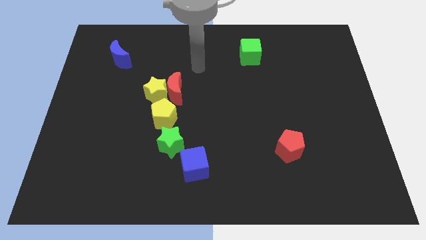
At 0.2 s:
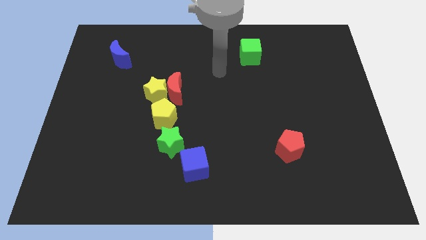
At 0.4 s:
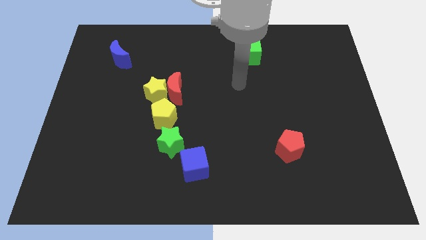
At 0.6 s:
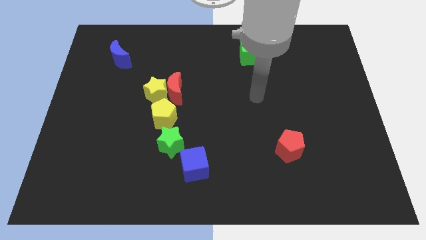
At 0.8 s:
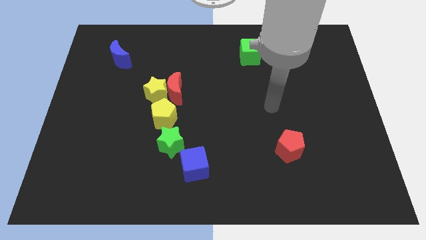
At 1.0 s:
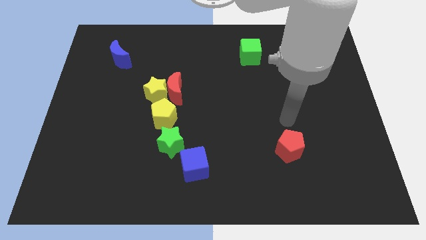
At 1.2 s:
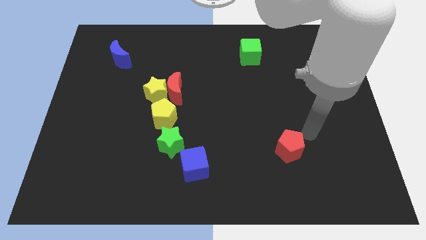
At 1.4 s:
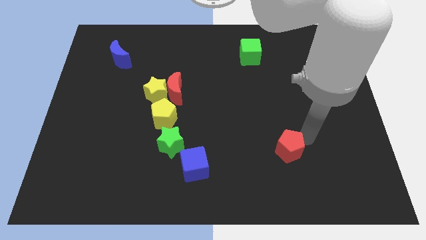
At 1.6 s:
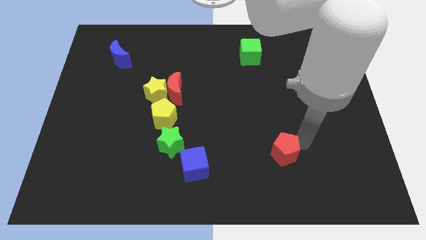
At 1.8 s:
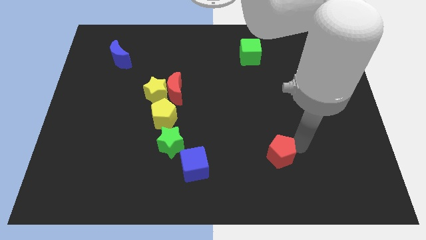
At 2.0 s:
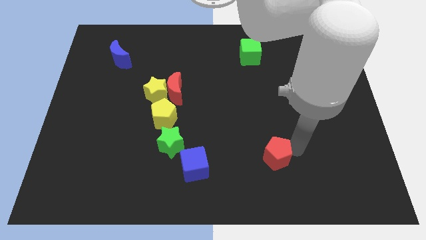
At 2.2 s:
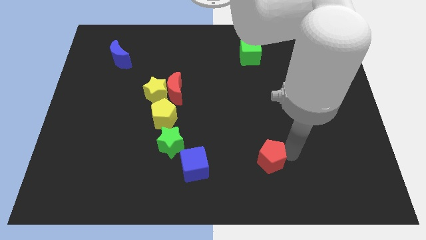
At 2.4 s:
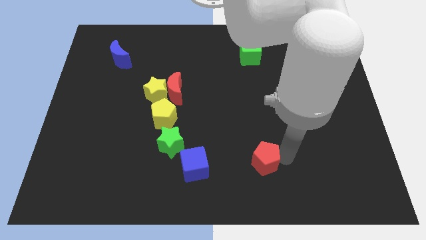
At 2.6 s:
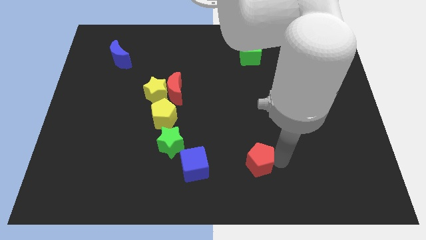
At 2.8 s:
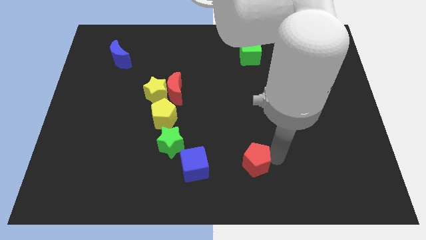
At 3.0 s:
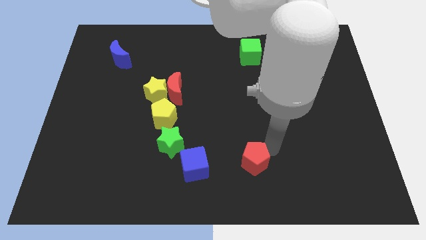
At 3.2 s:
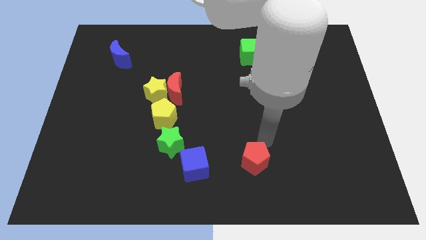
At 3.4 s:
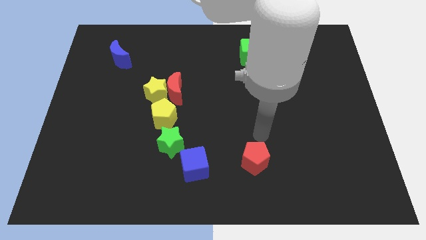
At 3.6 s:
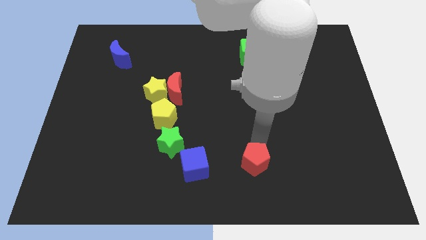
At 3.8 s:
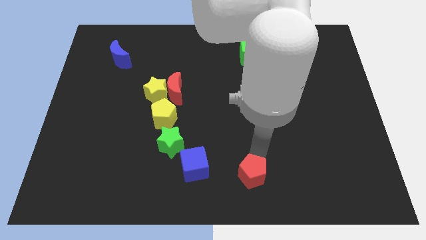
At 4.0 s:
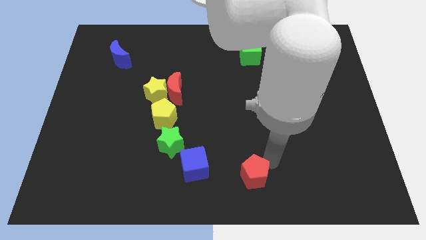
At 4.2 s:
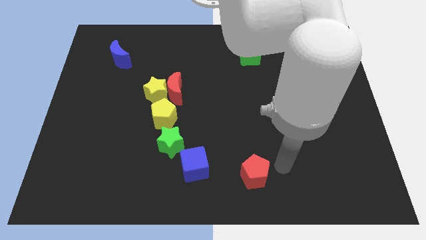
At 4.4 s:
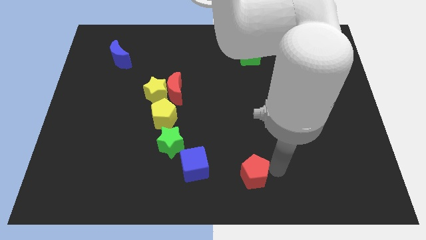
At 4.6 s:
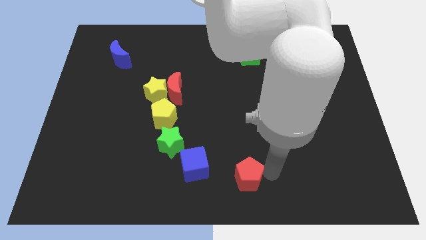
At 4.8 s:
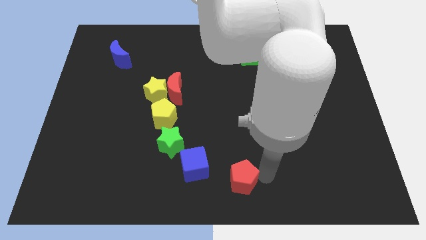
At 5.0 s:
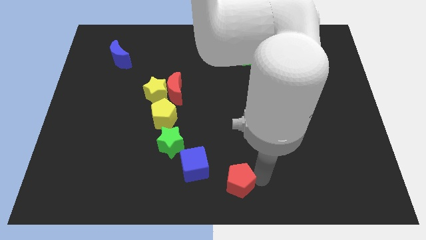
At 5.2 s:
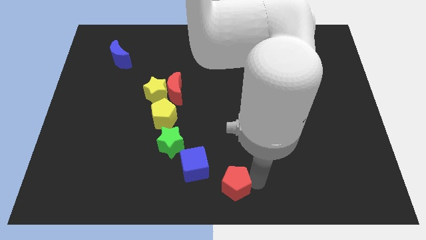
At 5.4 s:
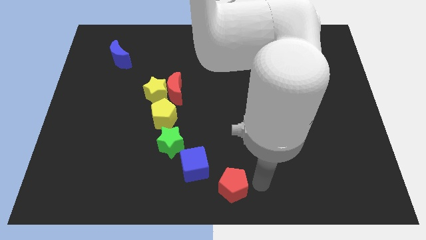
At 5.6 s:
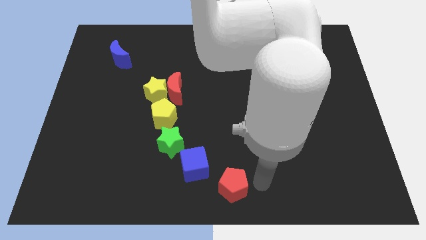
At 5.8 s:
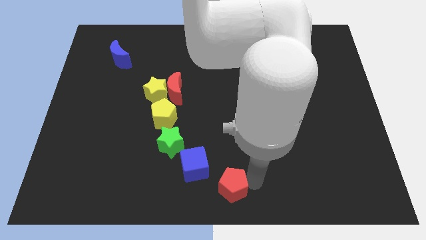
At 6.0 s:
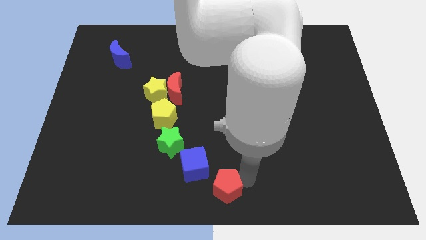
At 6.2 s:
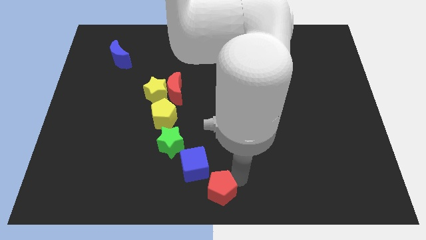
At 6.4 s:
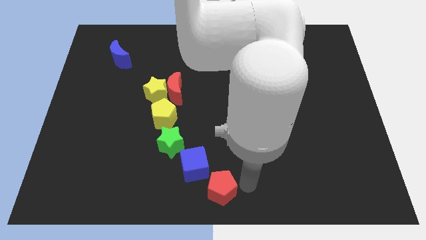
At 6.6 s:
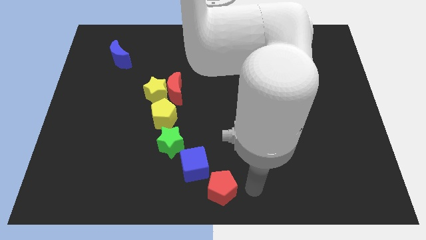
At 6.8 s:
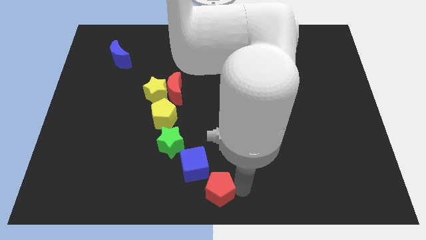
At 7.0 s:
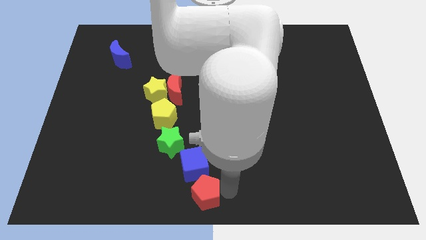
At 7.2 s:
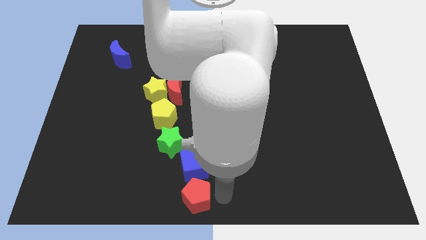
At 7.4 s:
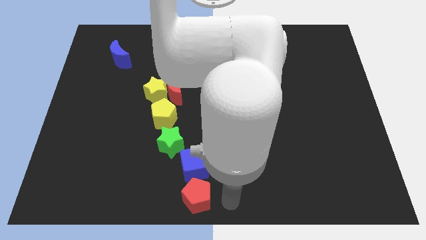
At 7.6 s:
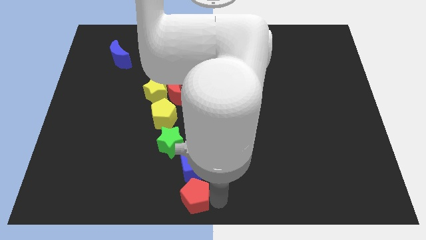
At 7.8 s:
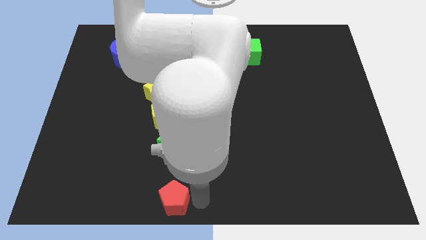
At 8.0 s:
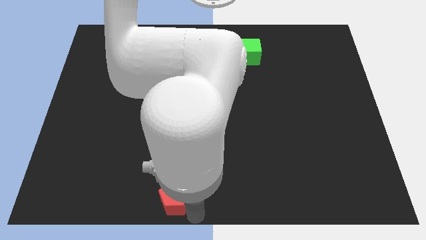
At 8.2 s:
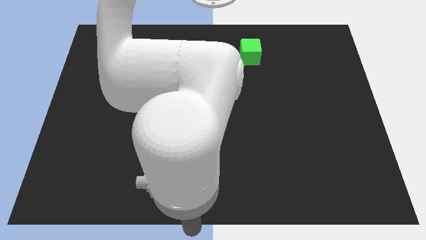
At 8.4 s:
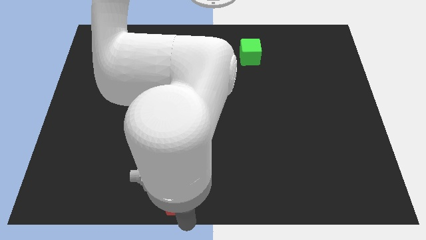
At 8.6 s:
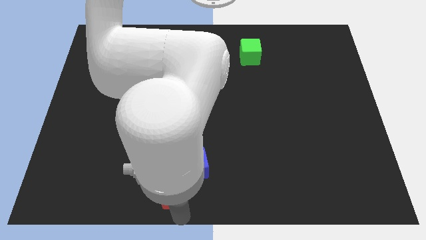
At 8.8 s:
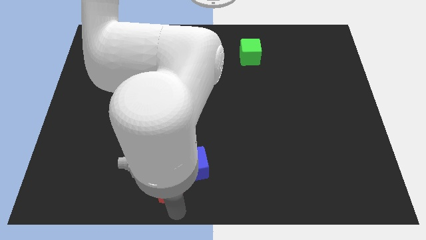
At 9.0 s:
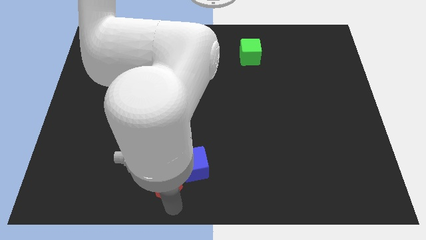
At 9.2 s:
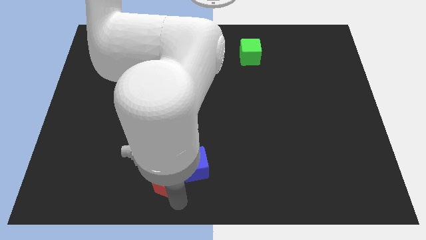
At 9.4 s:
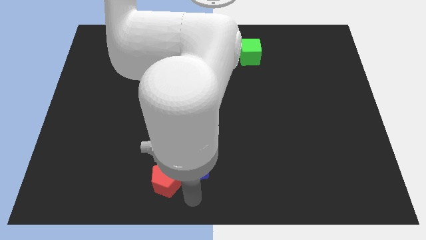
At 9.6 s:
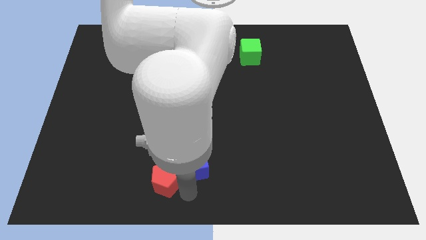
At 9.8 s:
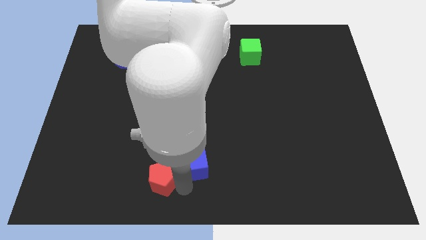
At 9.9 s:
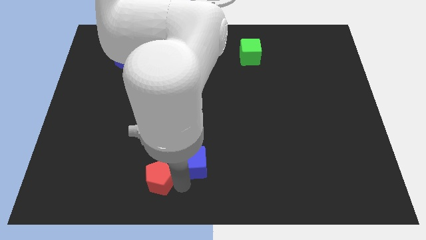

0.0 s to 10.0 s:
move the red pentagon to the bottom left side of the green star

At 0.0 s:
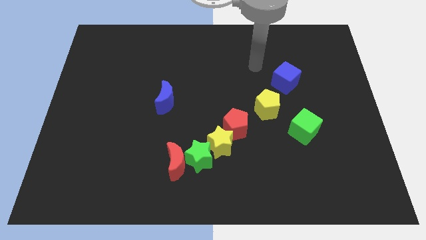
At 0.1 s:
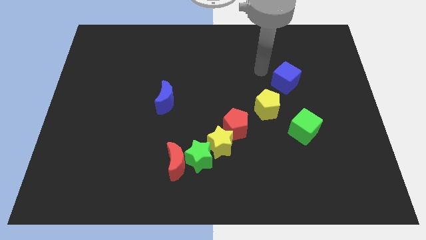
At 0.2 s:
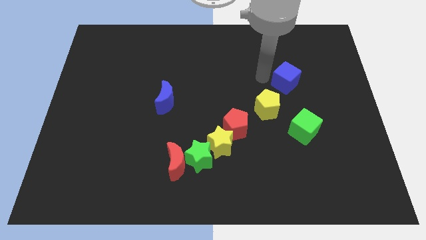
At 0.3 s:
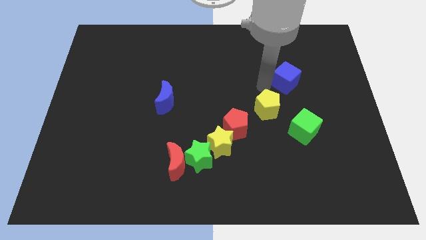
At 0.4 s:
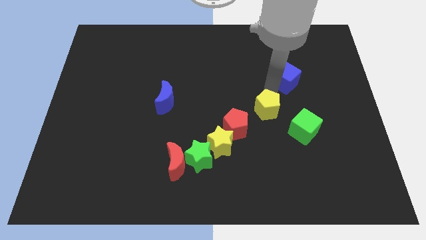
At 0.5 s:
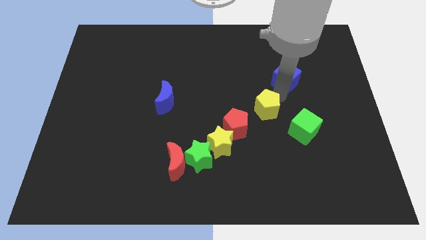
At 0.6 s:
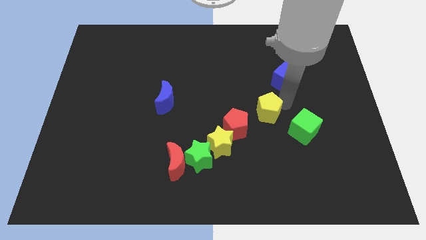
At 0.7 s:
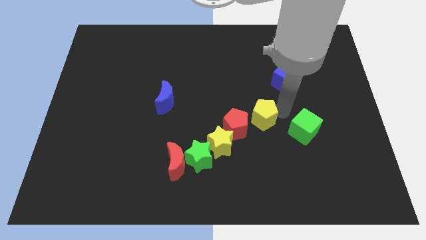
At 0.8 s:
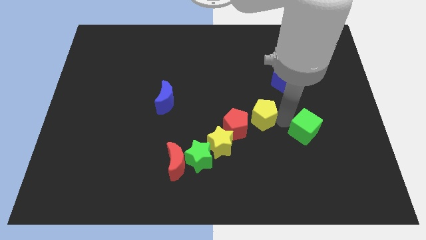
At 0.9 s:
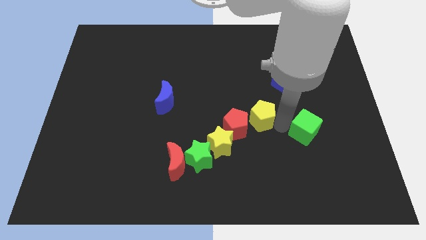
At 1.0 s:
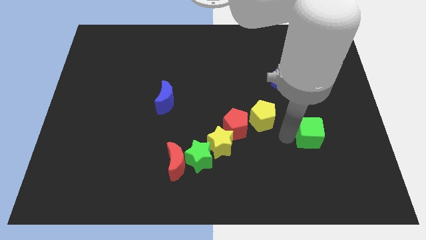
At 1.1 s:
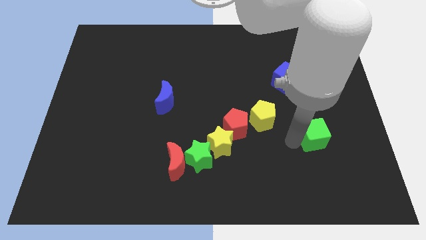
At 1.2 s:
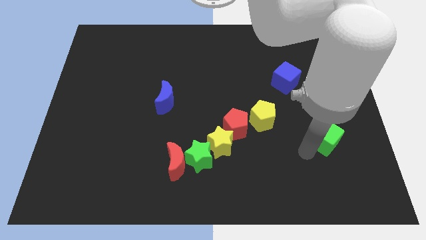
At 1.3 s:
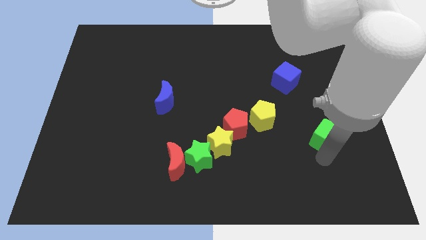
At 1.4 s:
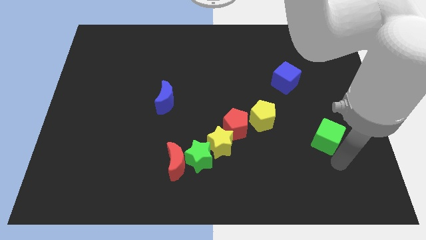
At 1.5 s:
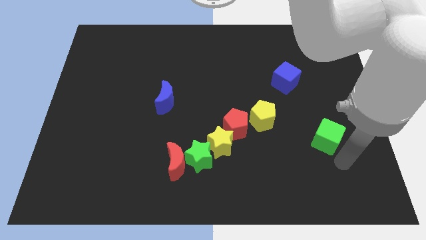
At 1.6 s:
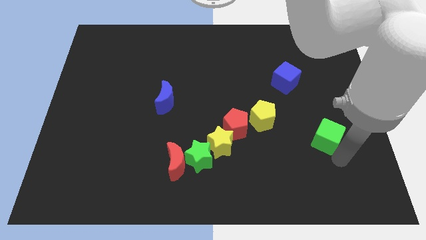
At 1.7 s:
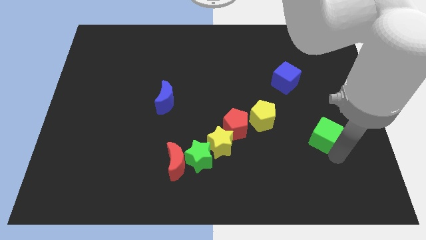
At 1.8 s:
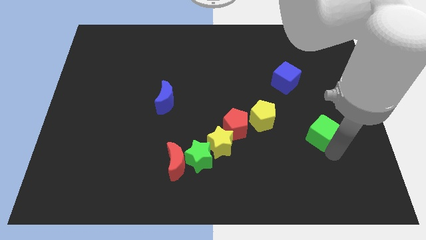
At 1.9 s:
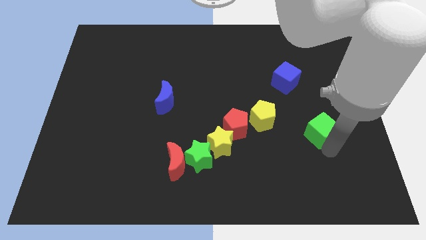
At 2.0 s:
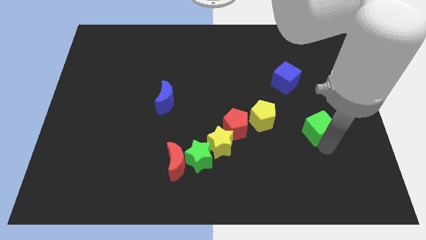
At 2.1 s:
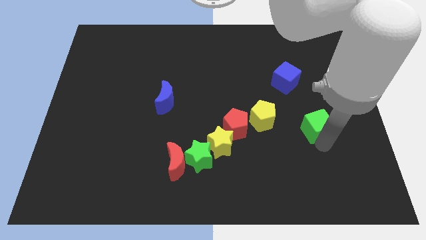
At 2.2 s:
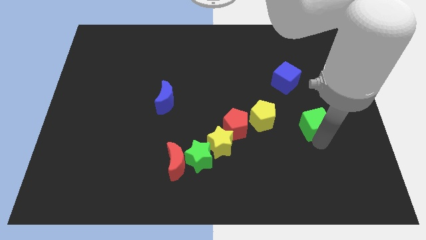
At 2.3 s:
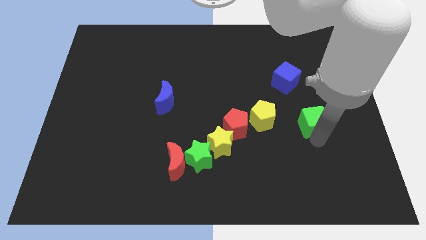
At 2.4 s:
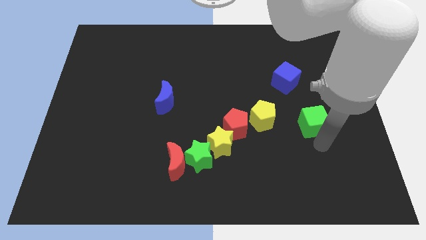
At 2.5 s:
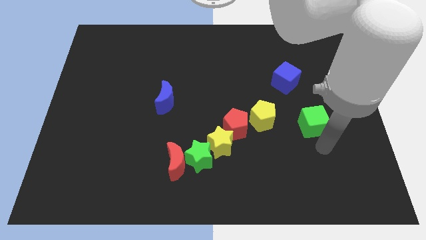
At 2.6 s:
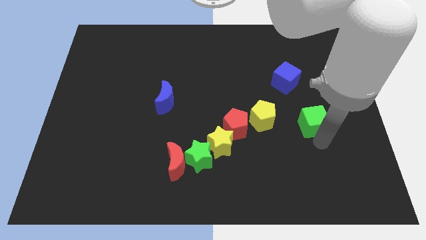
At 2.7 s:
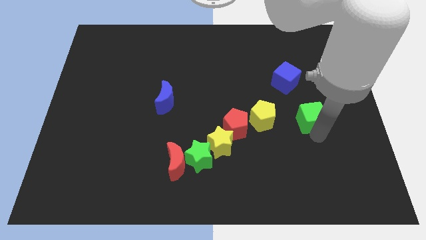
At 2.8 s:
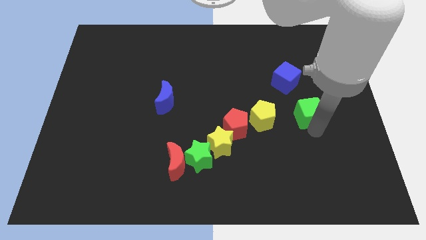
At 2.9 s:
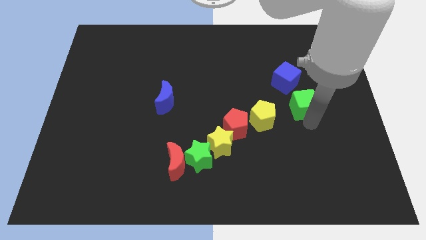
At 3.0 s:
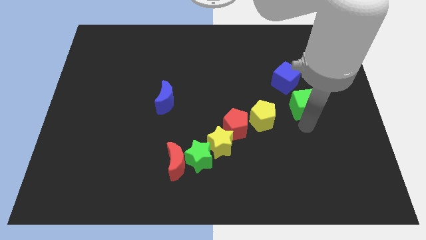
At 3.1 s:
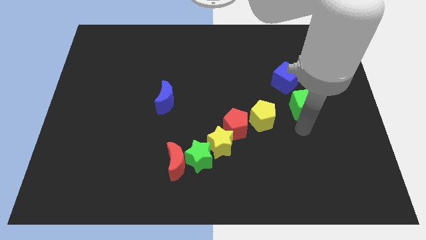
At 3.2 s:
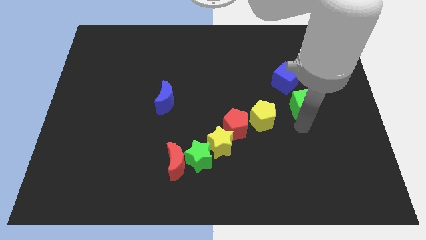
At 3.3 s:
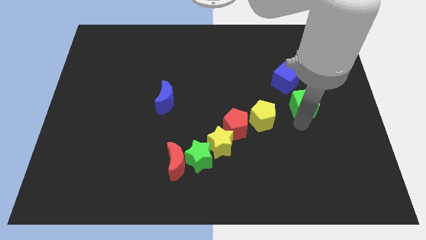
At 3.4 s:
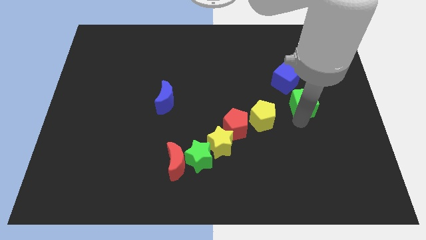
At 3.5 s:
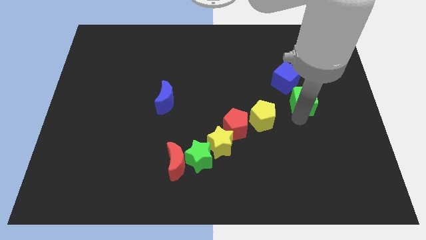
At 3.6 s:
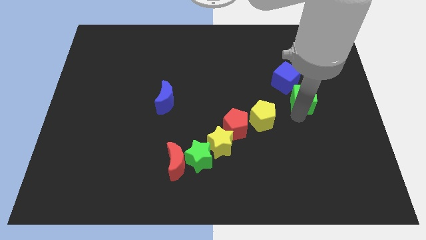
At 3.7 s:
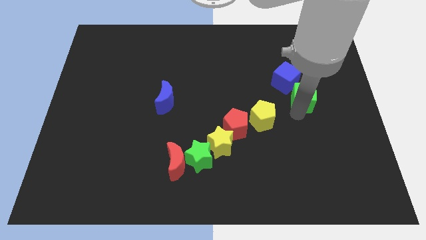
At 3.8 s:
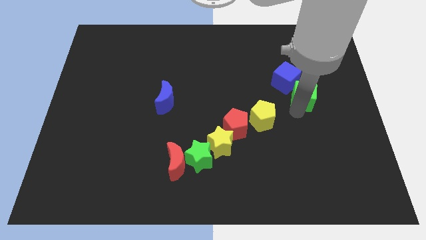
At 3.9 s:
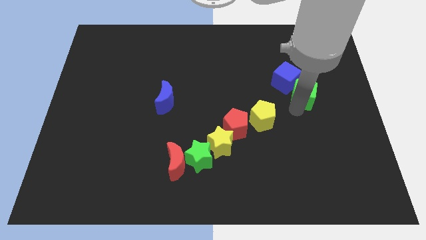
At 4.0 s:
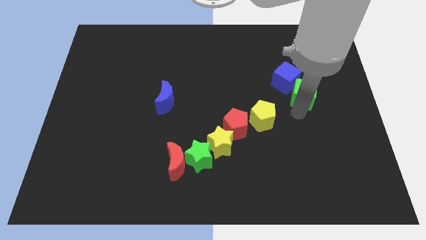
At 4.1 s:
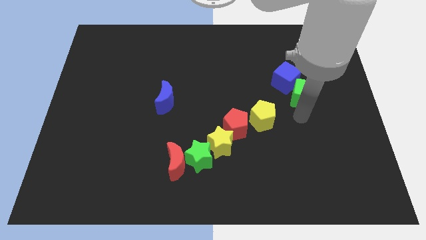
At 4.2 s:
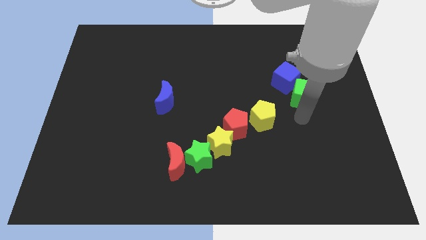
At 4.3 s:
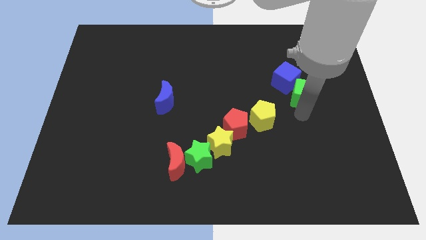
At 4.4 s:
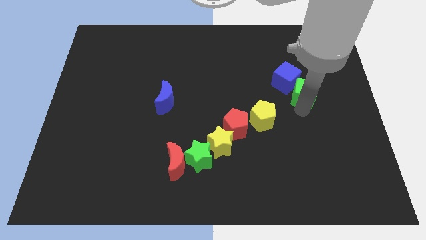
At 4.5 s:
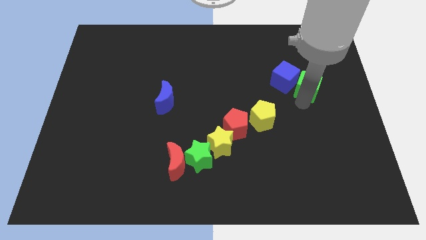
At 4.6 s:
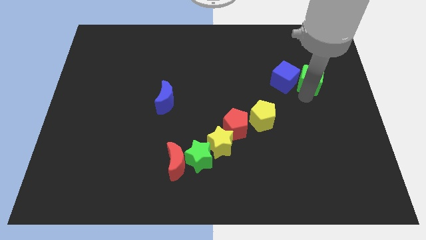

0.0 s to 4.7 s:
slide the green cube to the top right of the blue cube
